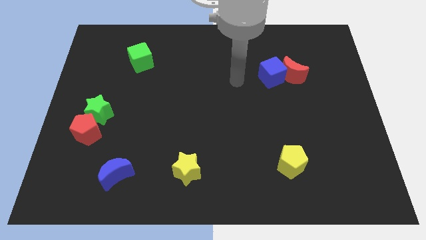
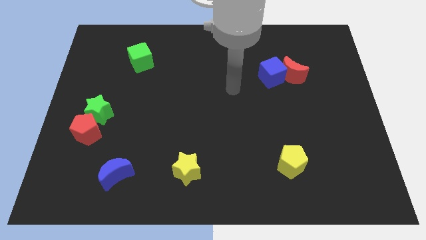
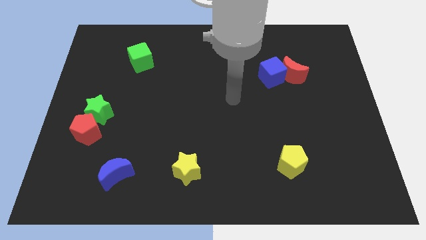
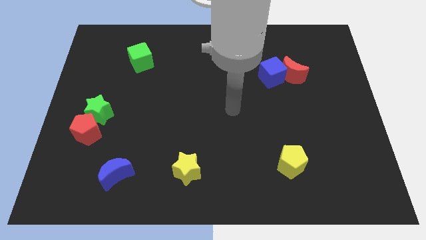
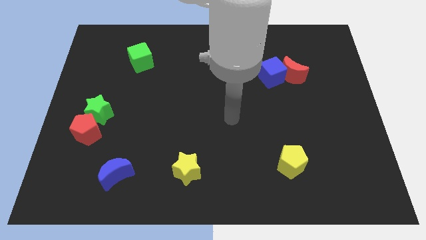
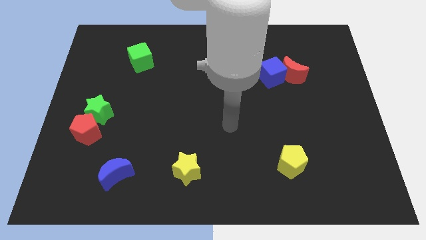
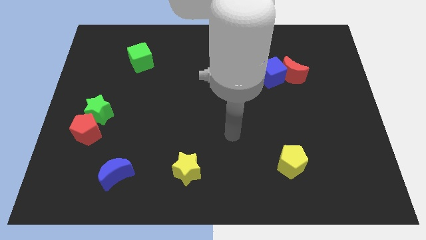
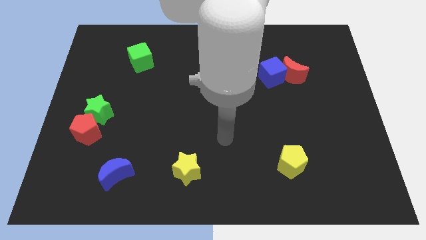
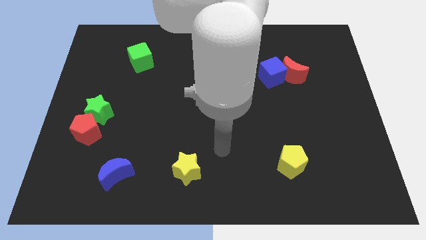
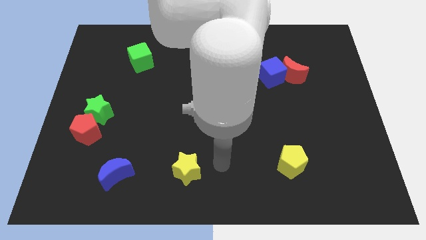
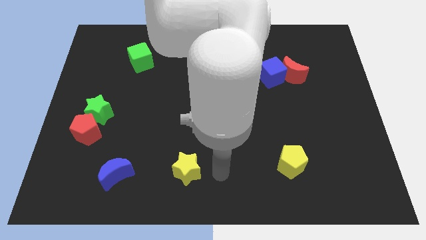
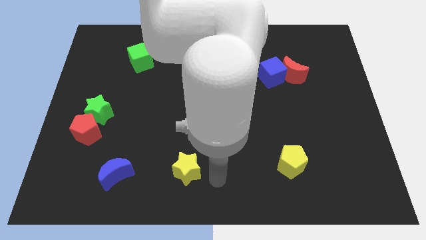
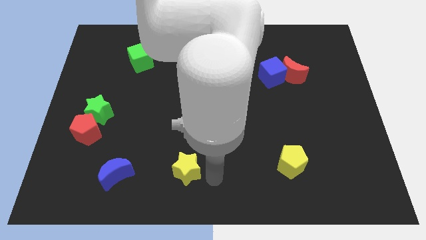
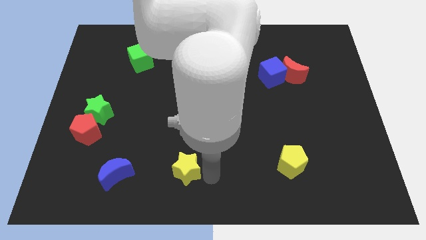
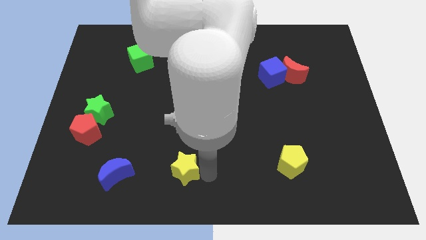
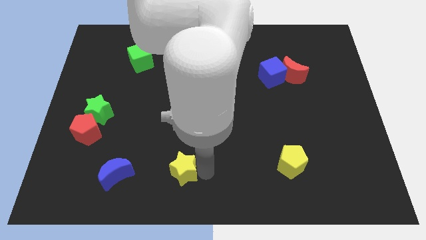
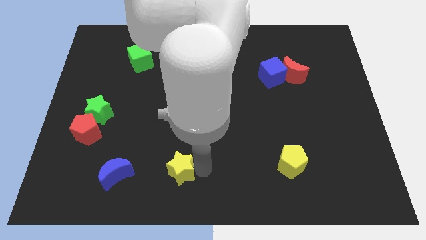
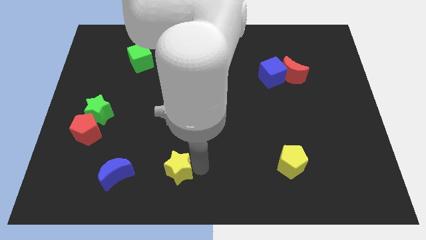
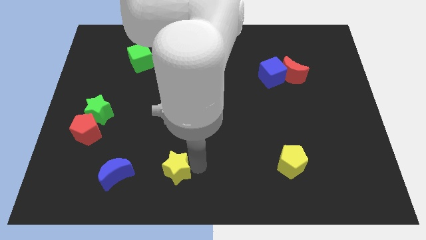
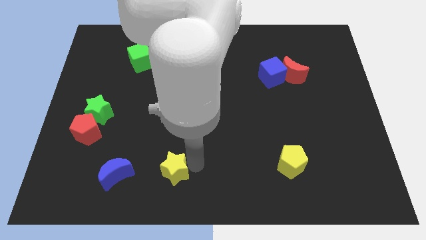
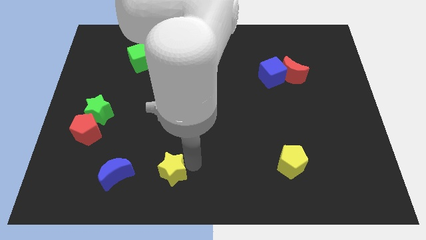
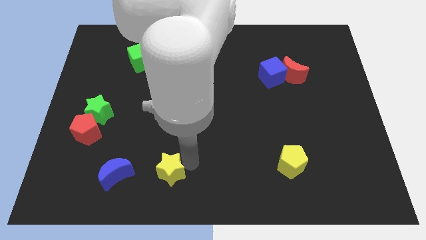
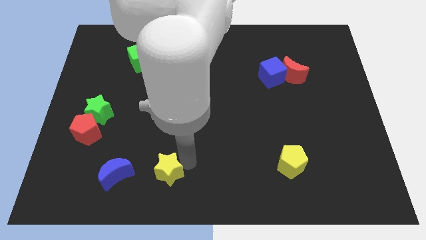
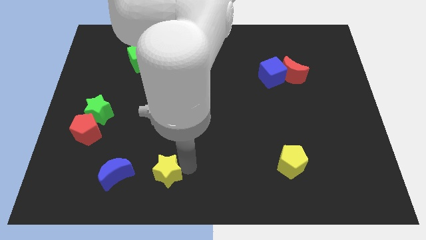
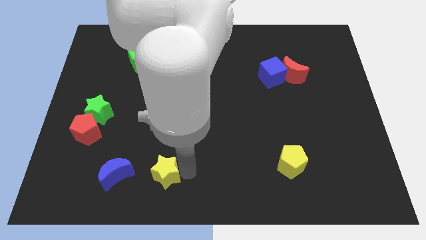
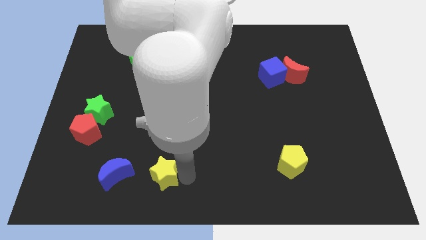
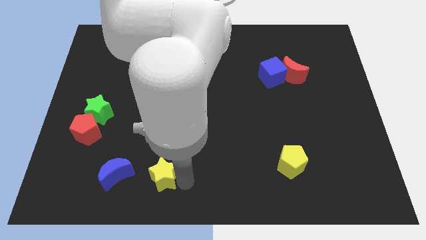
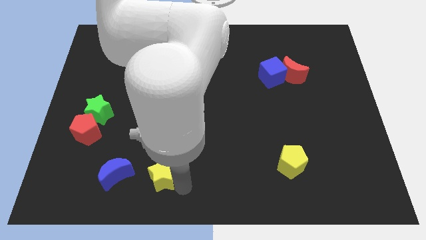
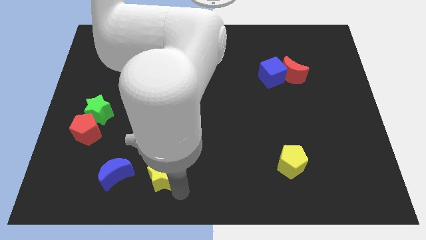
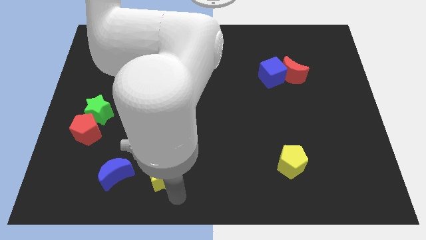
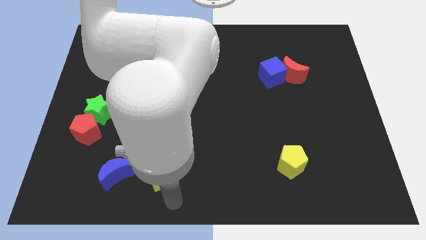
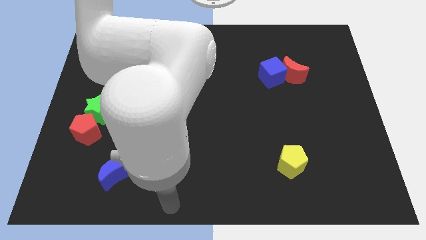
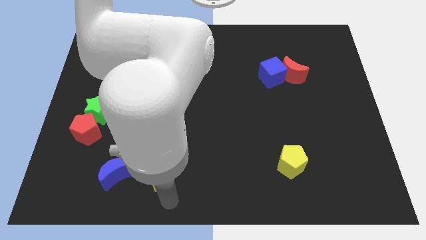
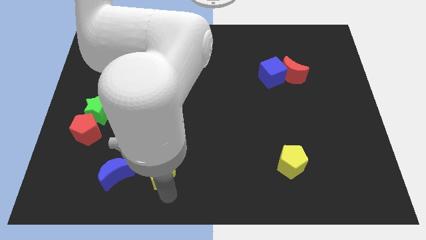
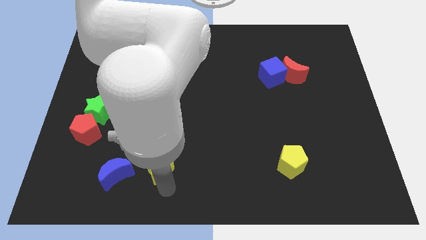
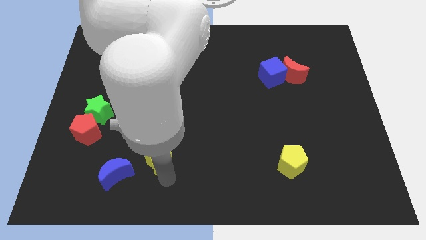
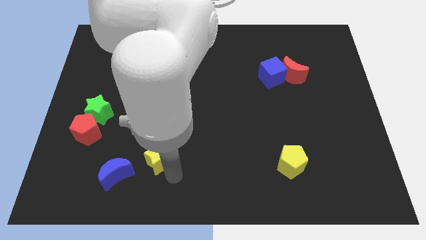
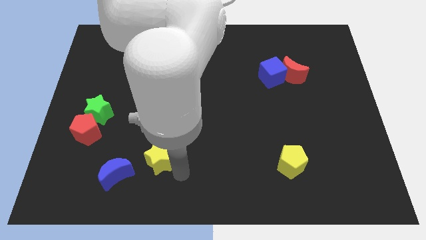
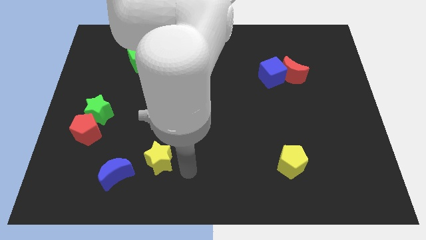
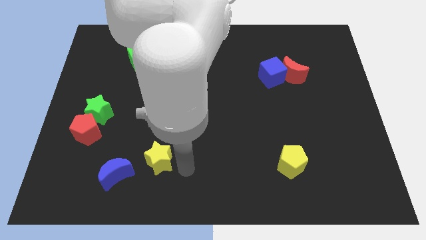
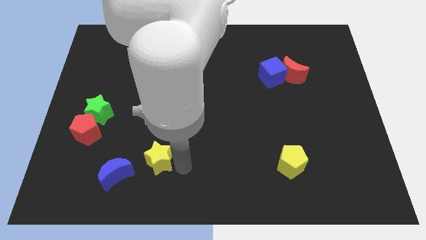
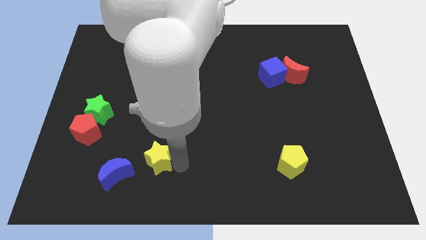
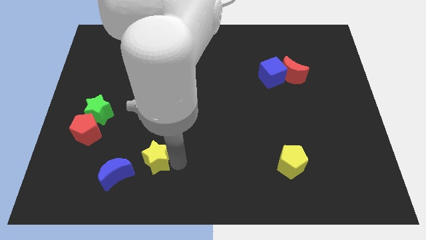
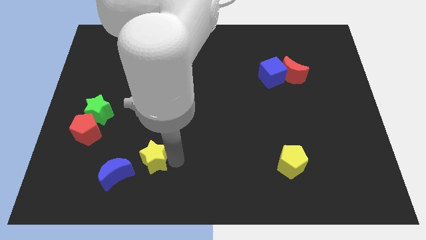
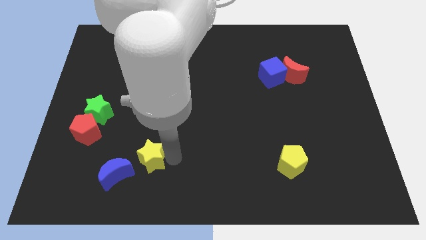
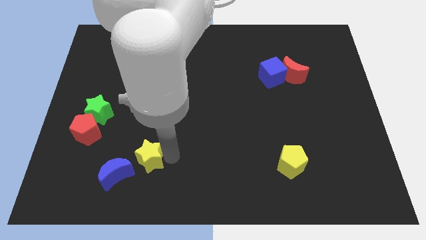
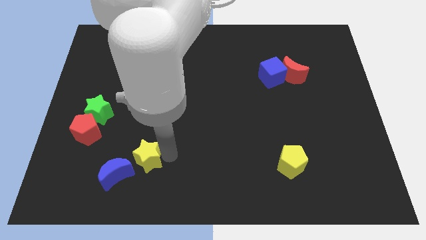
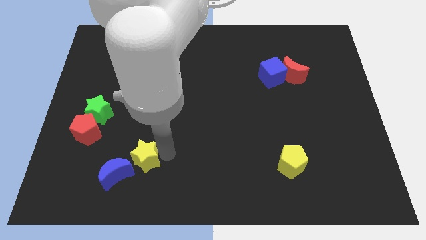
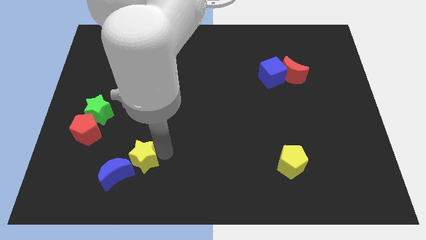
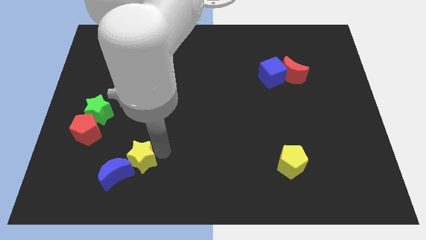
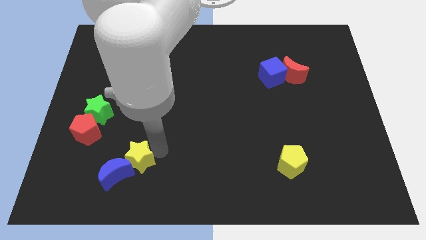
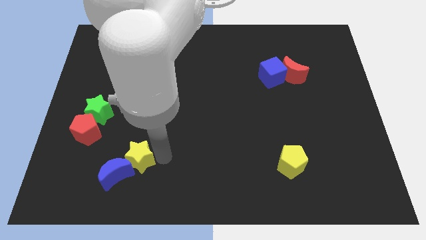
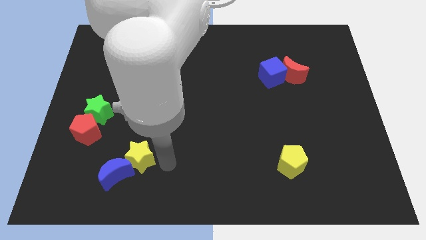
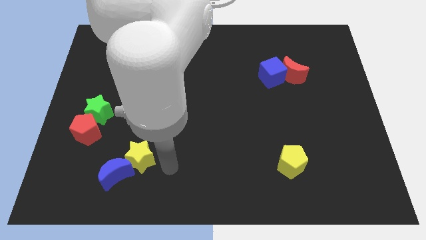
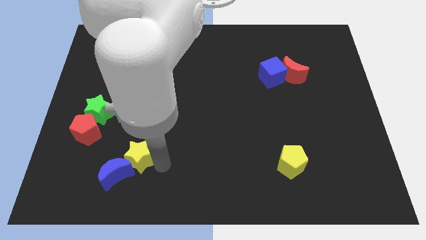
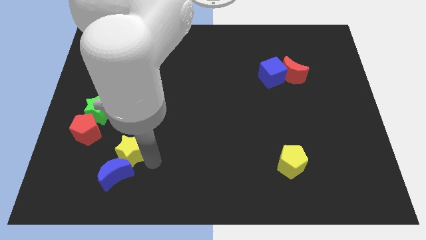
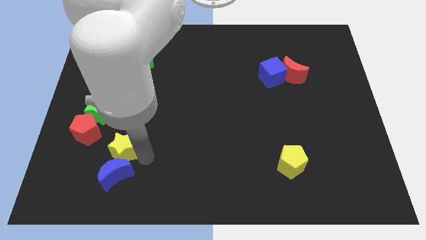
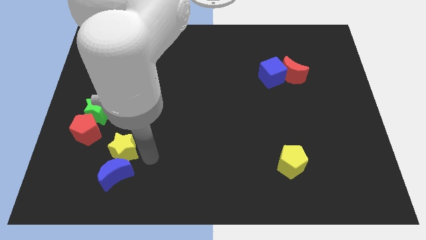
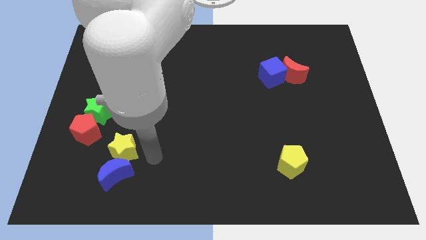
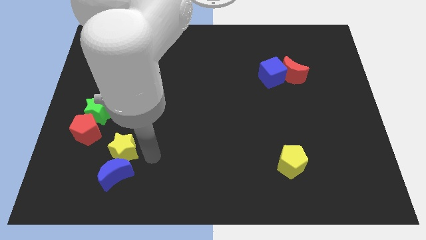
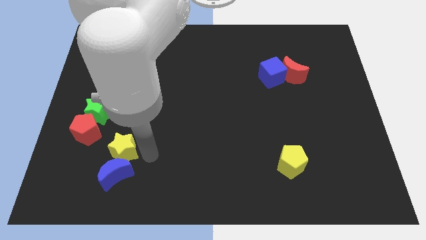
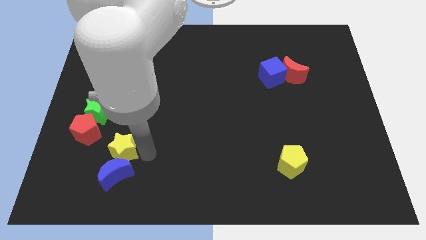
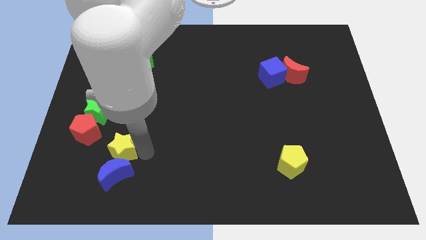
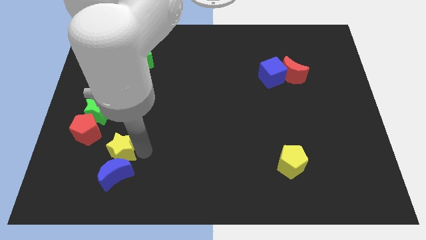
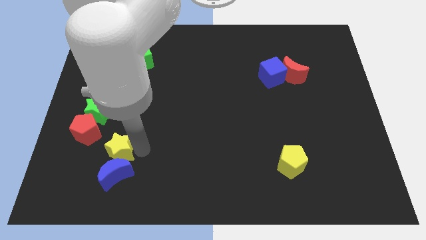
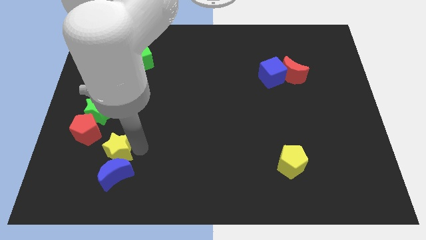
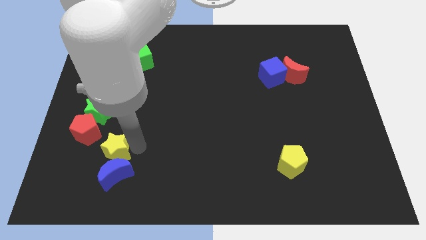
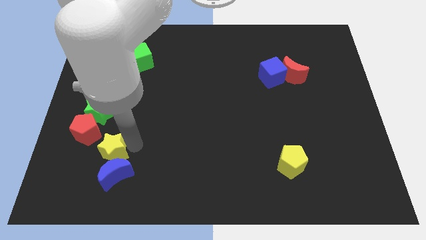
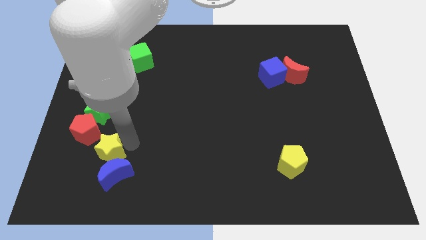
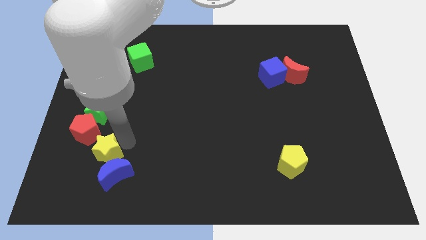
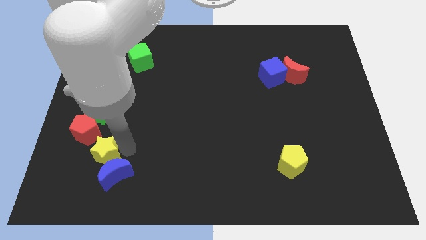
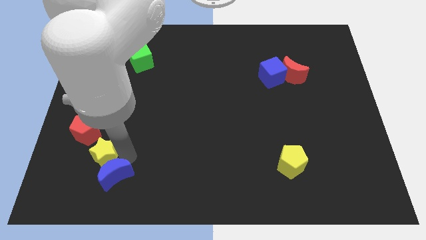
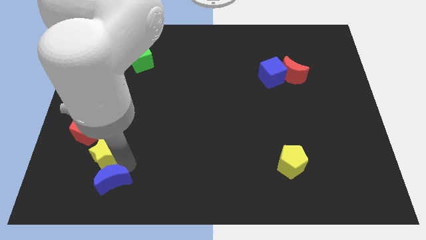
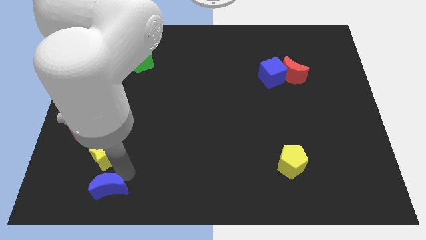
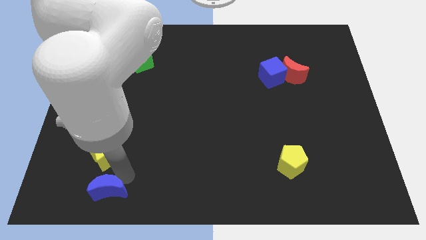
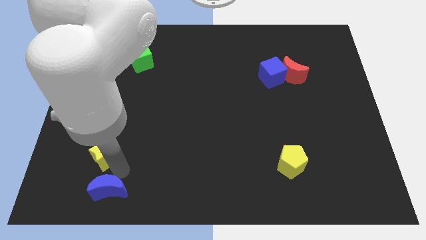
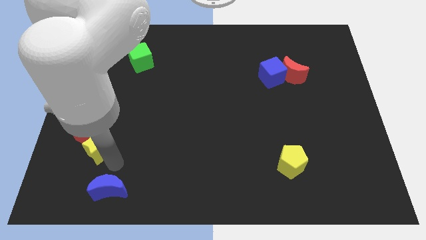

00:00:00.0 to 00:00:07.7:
move the yellow star close to the red pentagon
